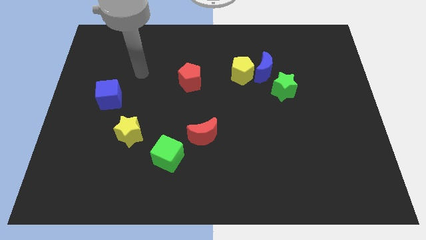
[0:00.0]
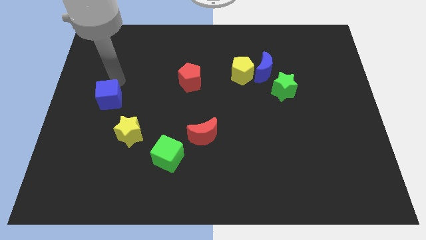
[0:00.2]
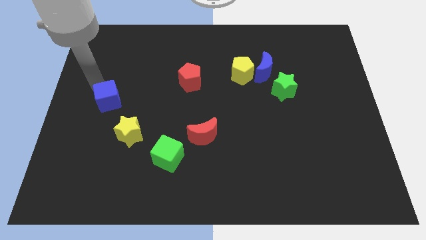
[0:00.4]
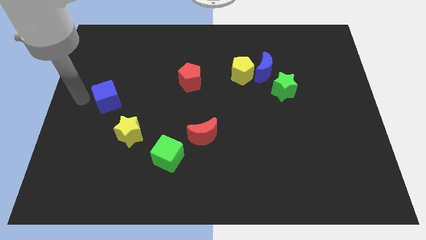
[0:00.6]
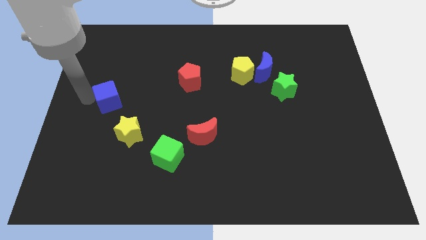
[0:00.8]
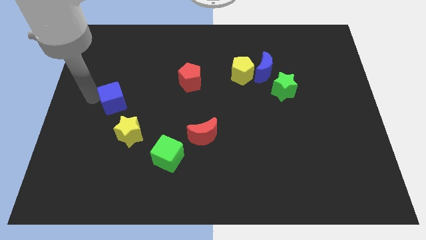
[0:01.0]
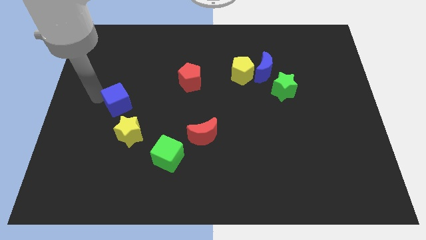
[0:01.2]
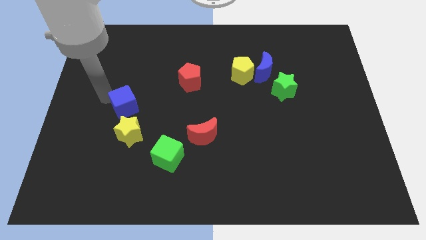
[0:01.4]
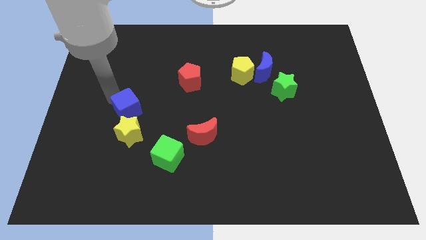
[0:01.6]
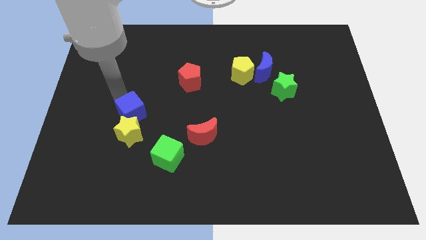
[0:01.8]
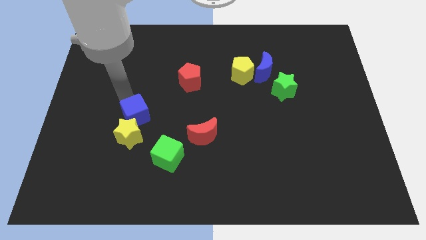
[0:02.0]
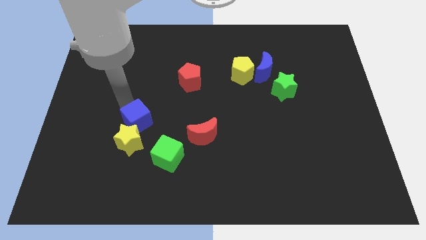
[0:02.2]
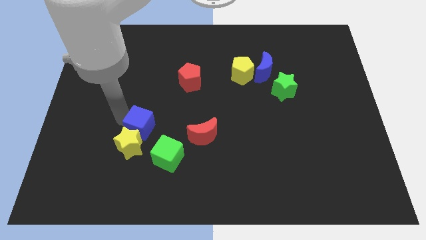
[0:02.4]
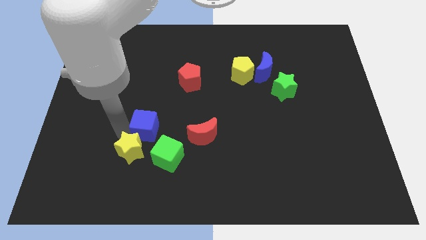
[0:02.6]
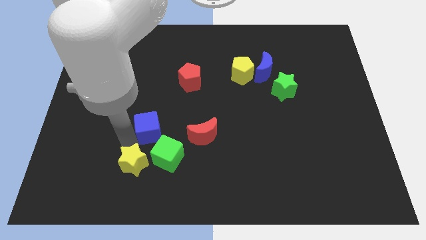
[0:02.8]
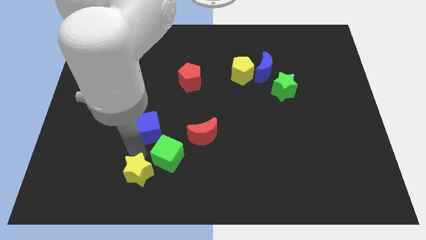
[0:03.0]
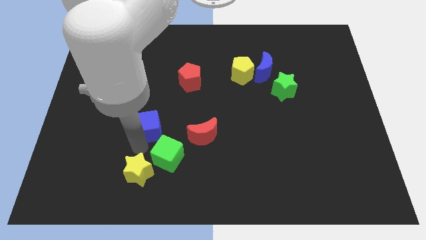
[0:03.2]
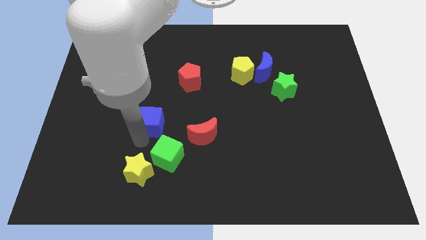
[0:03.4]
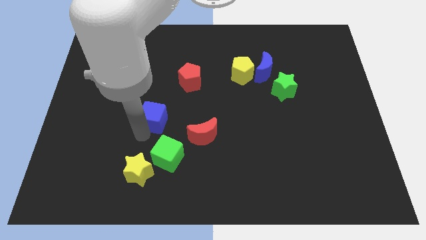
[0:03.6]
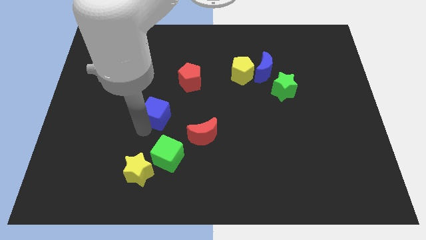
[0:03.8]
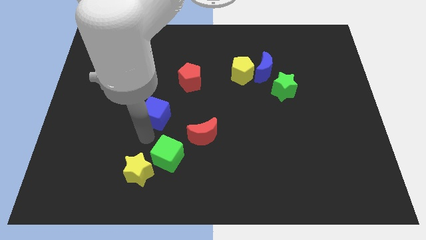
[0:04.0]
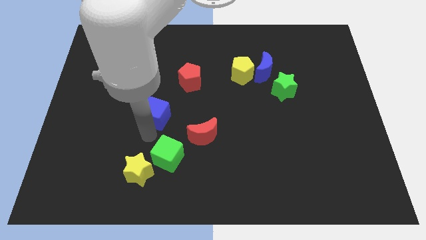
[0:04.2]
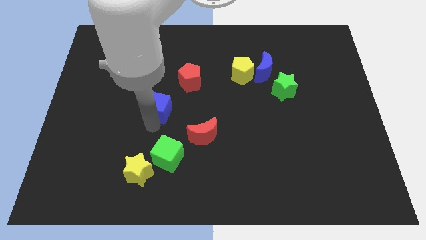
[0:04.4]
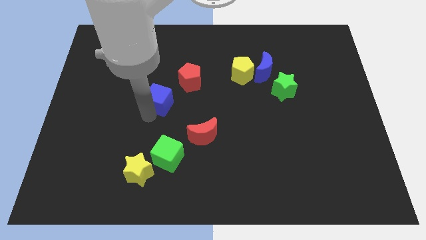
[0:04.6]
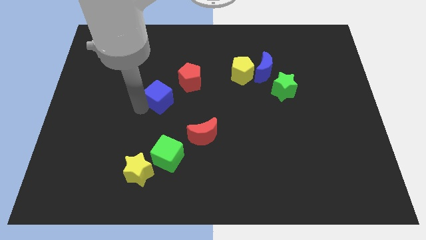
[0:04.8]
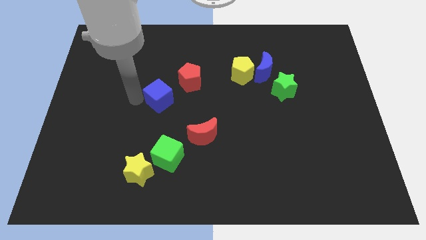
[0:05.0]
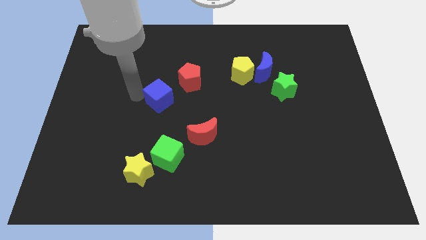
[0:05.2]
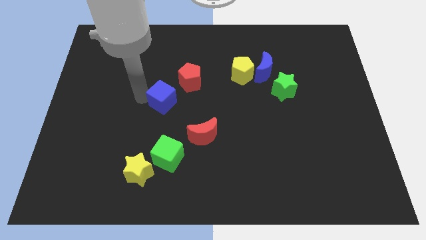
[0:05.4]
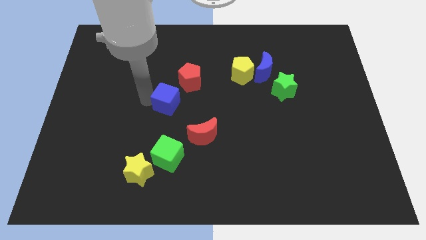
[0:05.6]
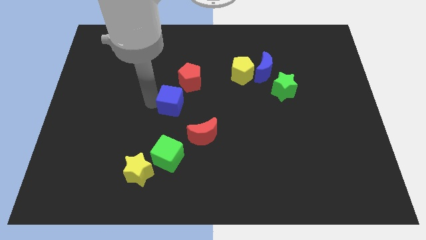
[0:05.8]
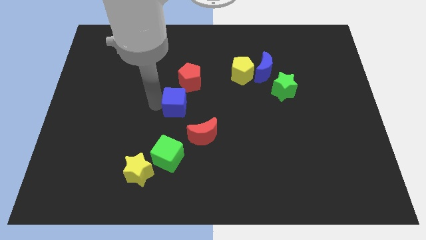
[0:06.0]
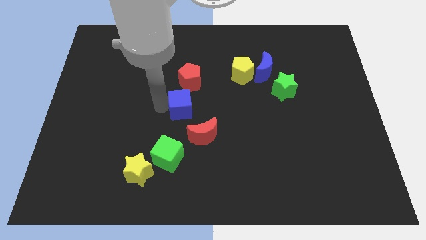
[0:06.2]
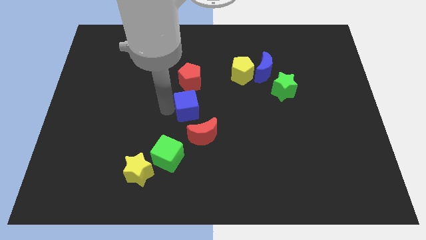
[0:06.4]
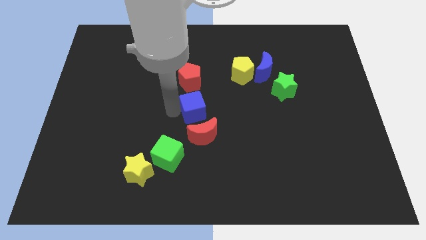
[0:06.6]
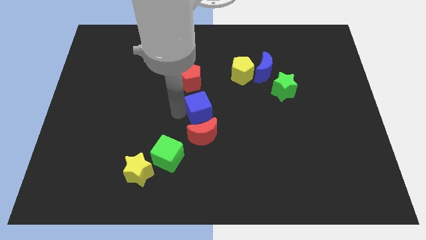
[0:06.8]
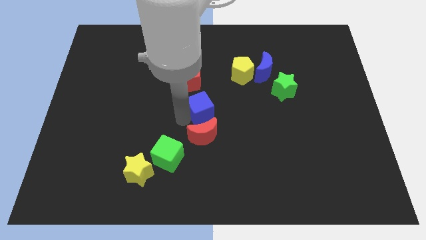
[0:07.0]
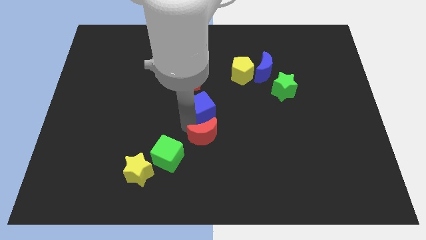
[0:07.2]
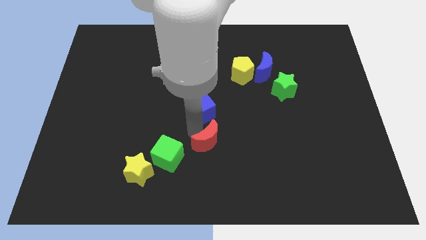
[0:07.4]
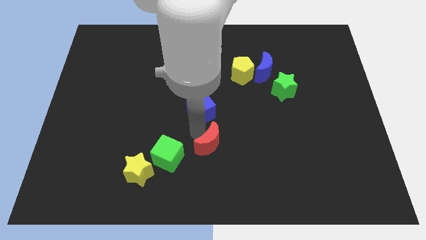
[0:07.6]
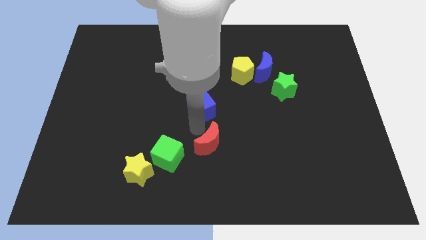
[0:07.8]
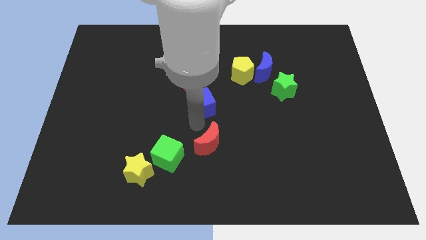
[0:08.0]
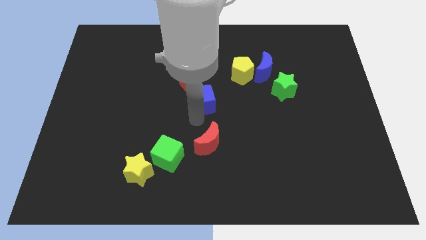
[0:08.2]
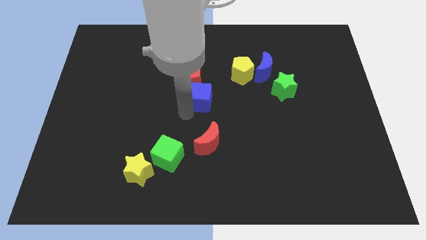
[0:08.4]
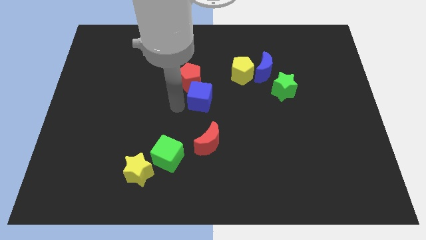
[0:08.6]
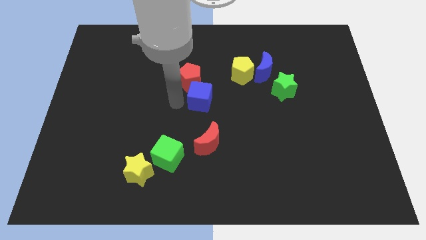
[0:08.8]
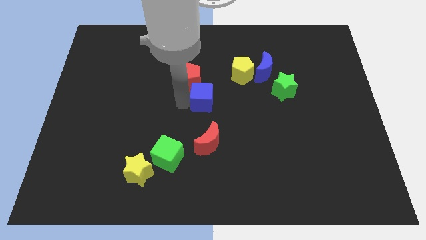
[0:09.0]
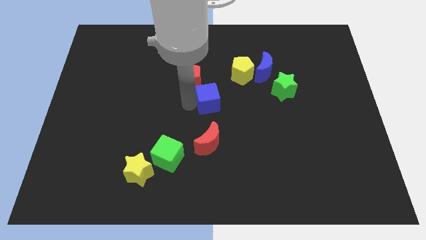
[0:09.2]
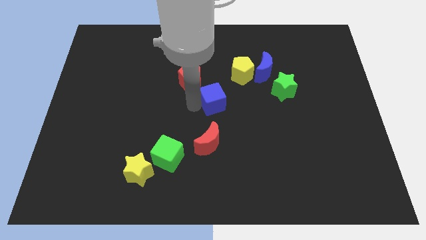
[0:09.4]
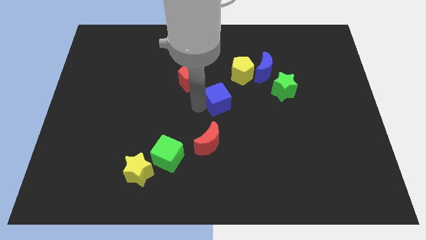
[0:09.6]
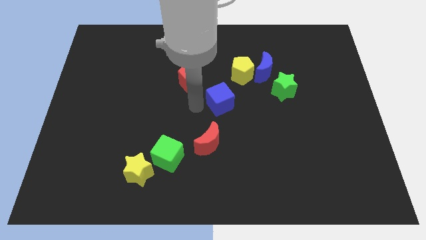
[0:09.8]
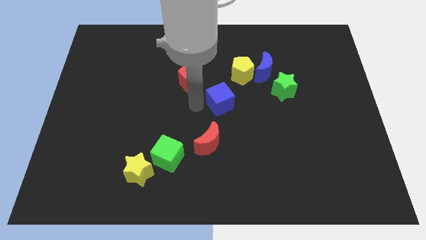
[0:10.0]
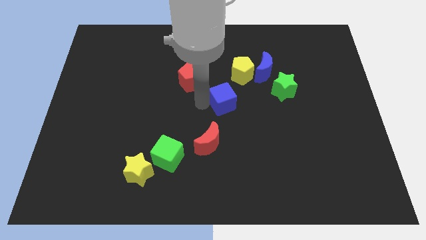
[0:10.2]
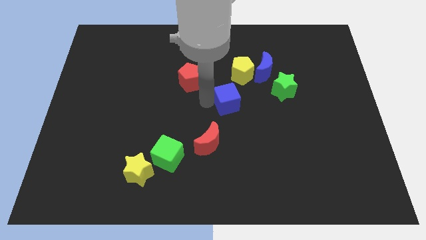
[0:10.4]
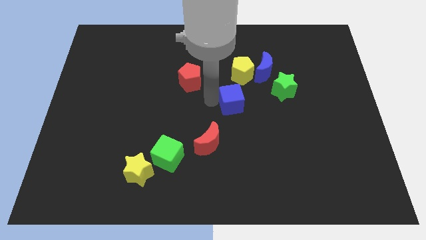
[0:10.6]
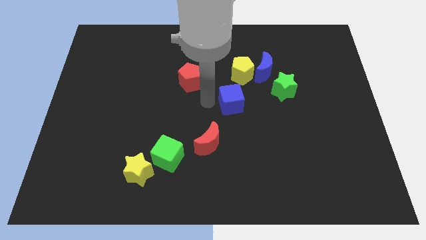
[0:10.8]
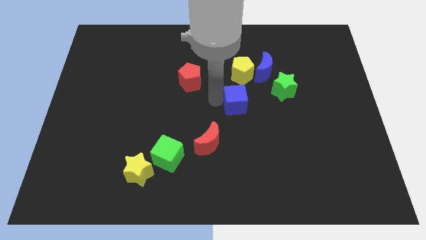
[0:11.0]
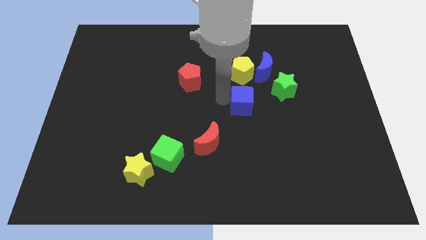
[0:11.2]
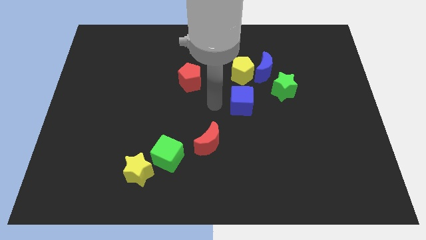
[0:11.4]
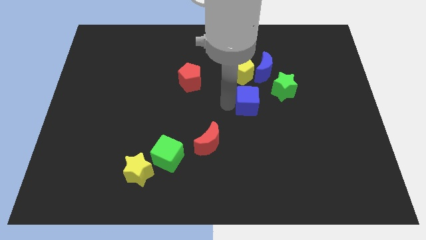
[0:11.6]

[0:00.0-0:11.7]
push the blue cube below the blue moon

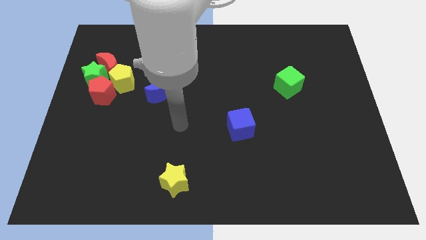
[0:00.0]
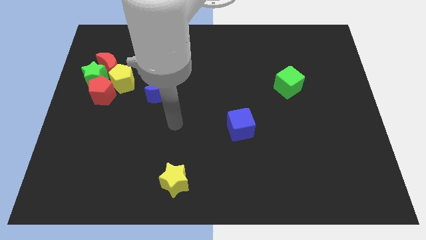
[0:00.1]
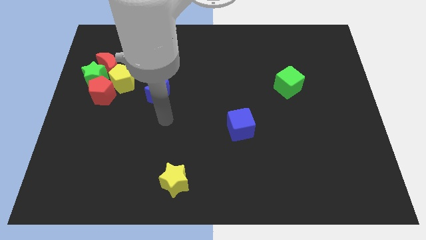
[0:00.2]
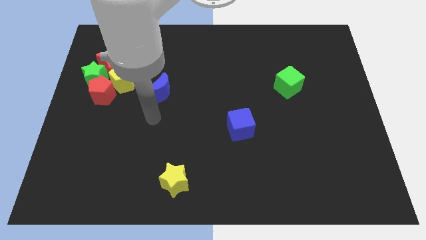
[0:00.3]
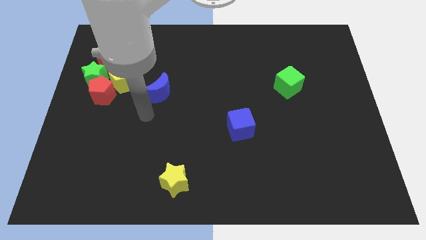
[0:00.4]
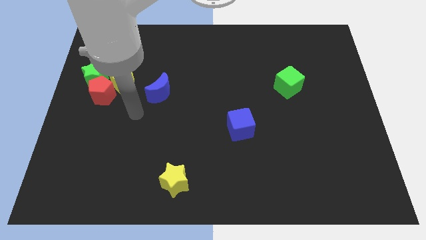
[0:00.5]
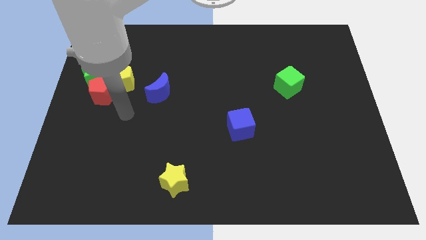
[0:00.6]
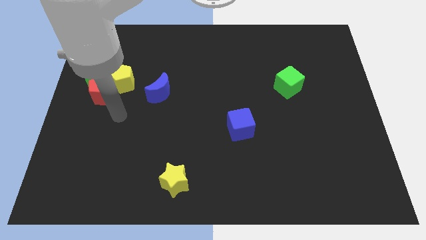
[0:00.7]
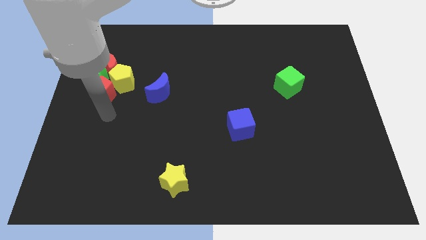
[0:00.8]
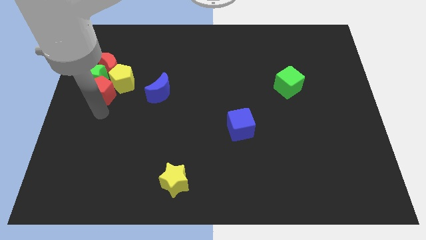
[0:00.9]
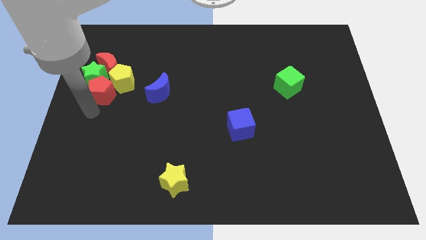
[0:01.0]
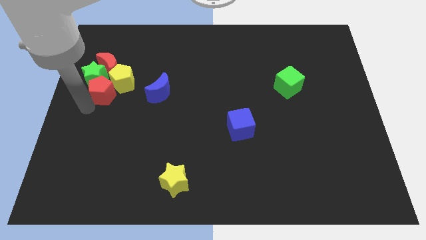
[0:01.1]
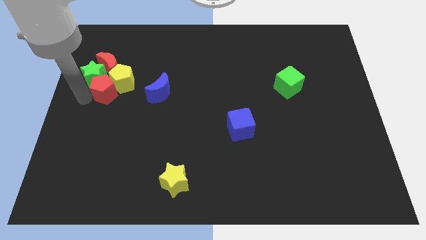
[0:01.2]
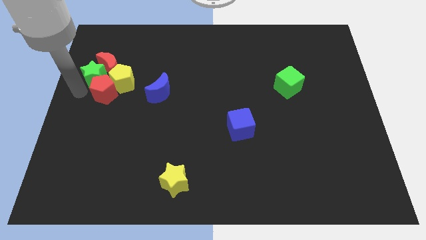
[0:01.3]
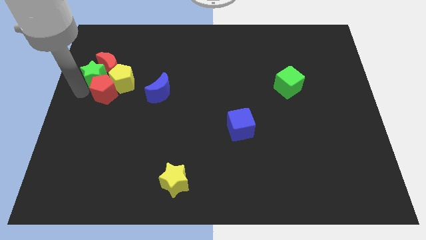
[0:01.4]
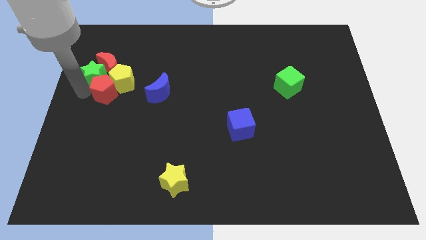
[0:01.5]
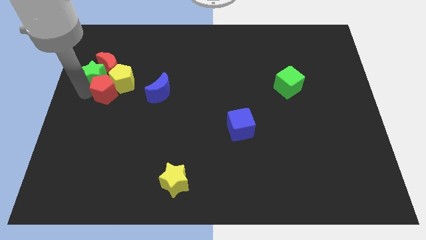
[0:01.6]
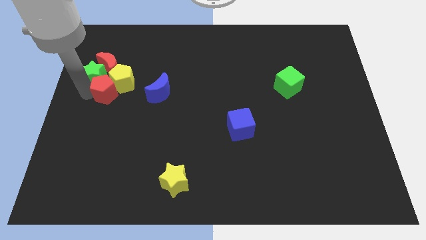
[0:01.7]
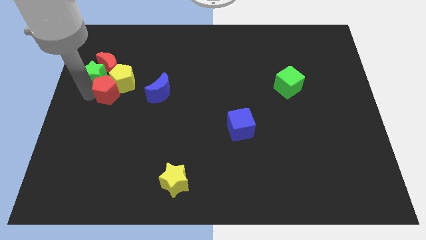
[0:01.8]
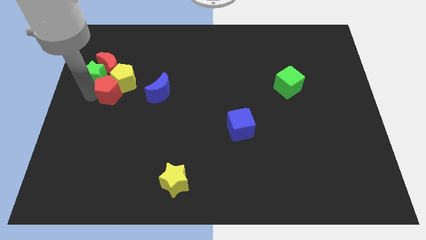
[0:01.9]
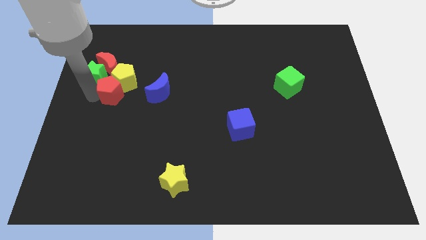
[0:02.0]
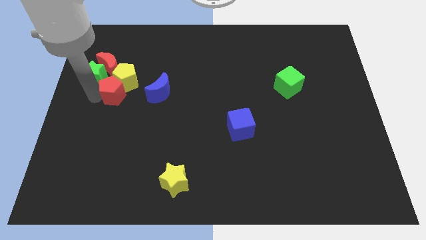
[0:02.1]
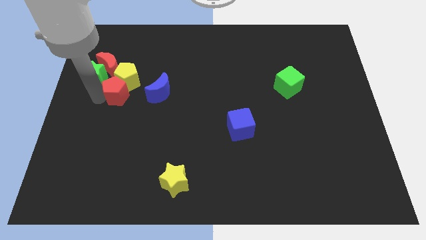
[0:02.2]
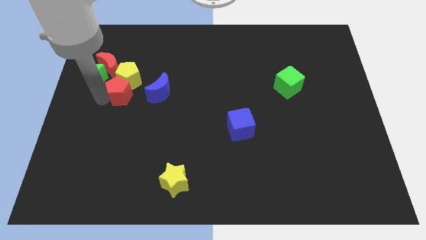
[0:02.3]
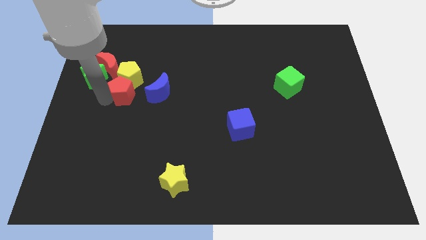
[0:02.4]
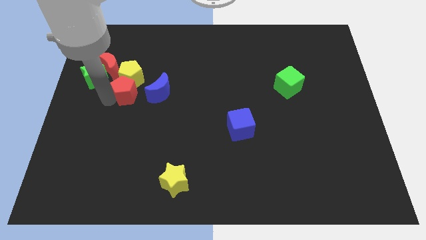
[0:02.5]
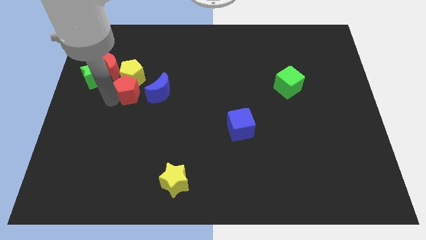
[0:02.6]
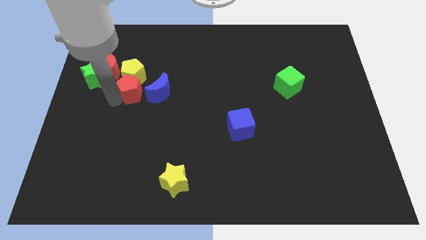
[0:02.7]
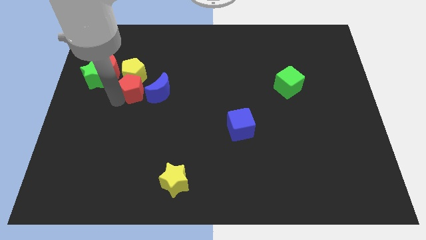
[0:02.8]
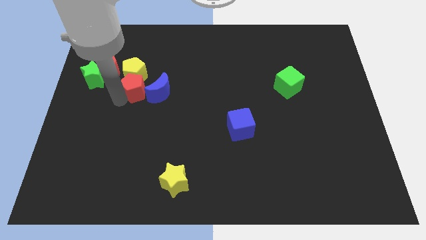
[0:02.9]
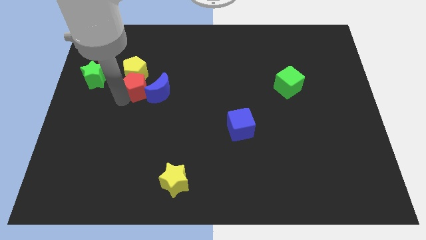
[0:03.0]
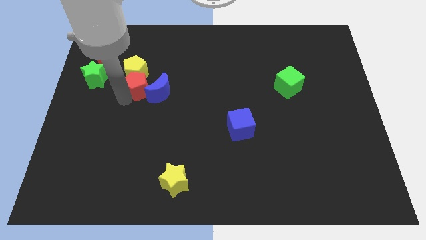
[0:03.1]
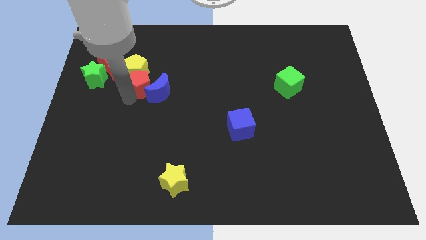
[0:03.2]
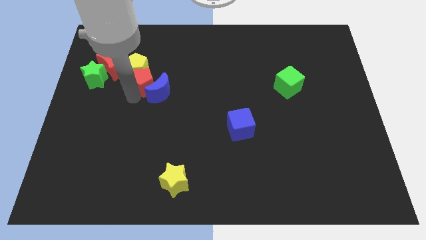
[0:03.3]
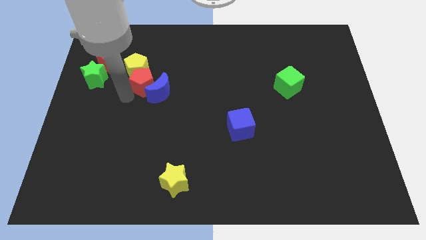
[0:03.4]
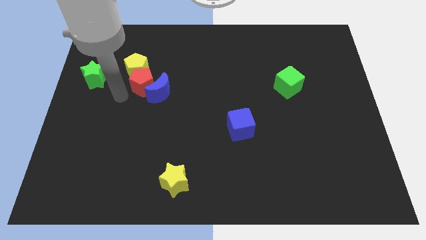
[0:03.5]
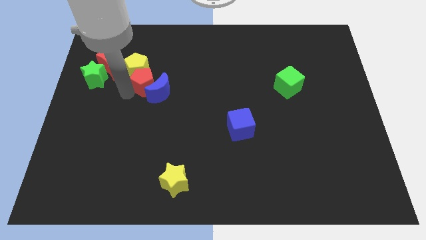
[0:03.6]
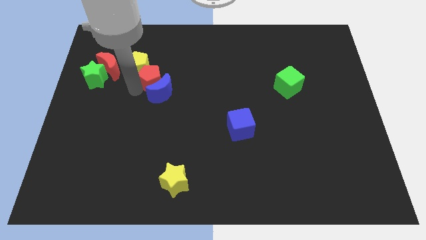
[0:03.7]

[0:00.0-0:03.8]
slide the red pentagon just right of the yellow pentagon
